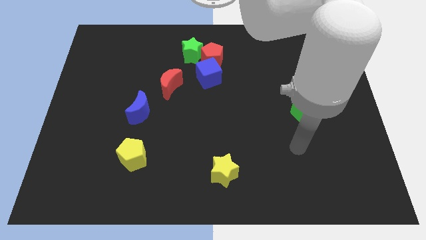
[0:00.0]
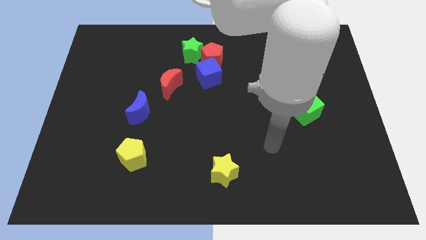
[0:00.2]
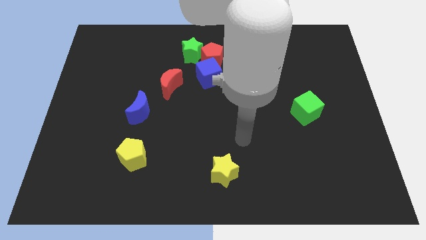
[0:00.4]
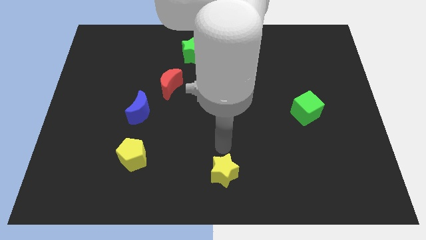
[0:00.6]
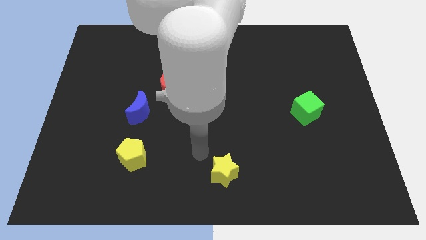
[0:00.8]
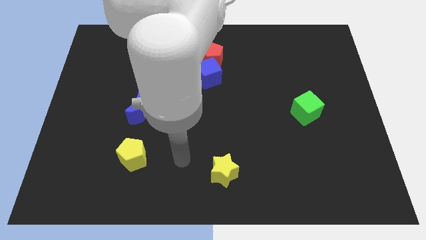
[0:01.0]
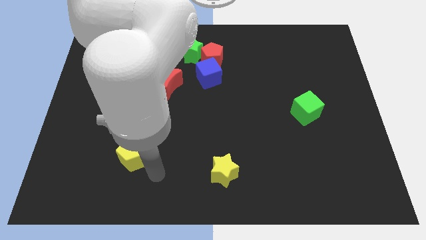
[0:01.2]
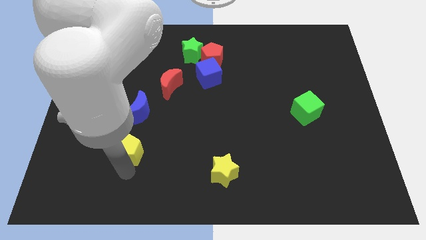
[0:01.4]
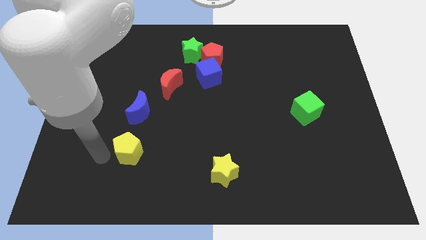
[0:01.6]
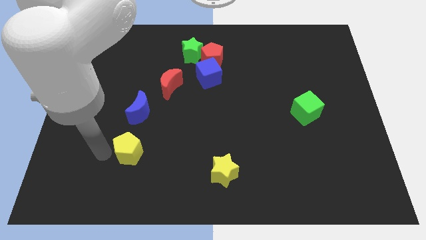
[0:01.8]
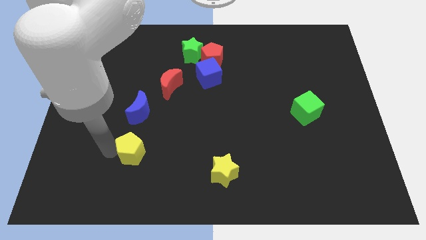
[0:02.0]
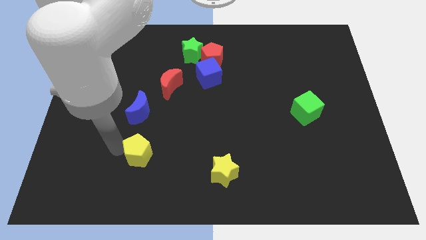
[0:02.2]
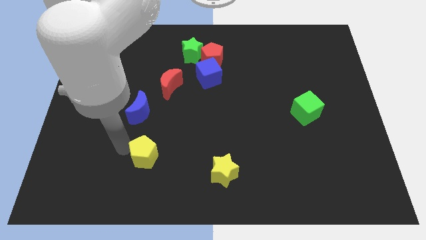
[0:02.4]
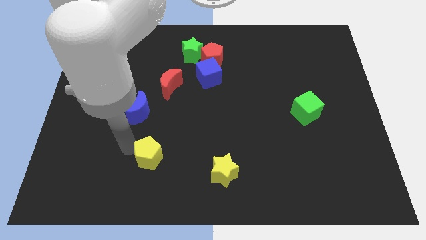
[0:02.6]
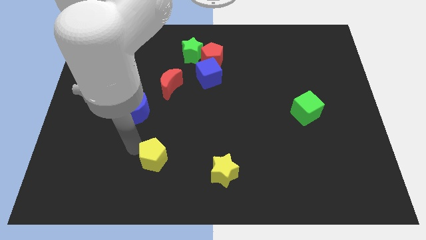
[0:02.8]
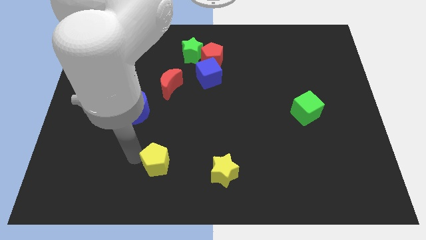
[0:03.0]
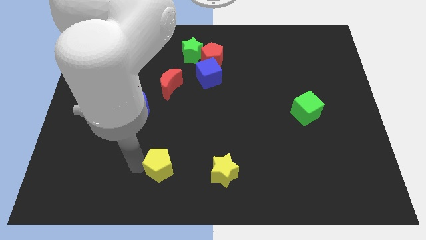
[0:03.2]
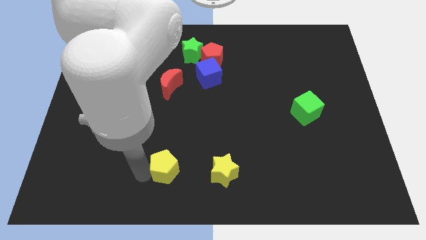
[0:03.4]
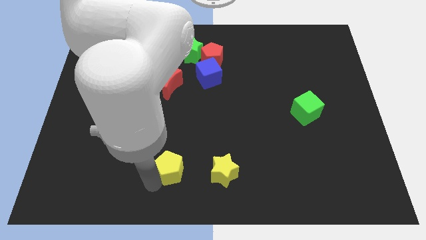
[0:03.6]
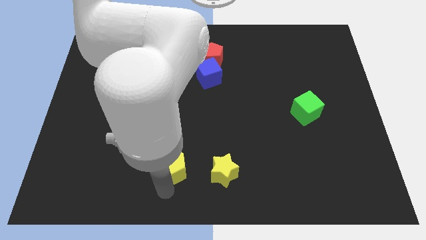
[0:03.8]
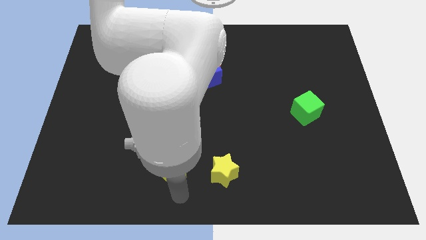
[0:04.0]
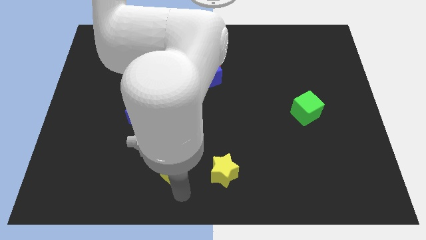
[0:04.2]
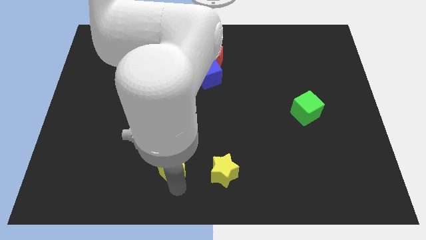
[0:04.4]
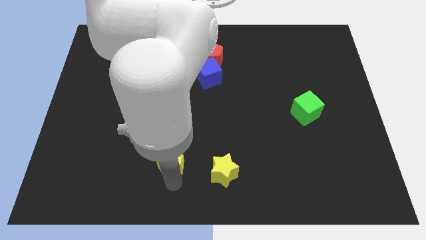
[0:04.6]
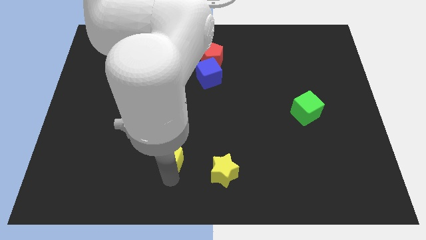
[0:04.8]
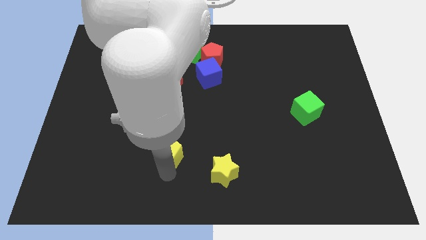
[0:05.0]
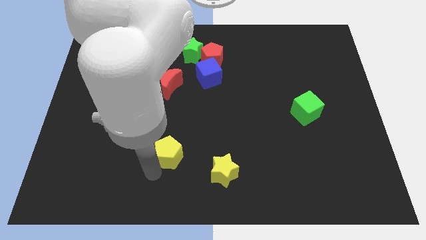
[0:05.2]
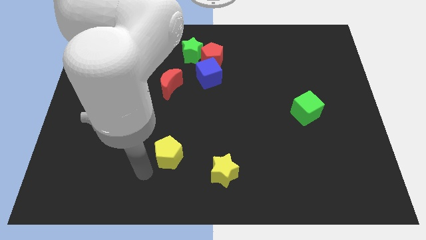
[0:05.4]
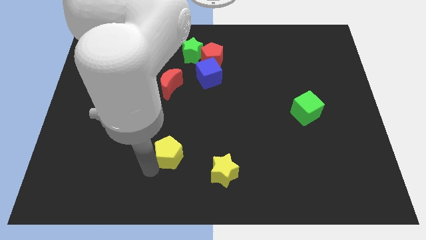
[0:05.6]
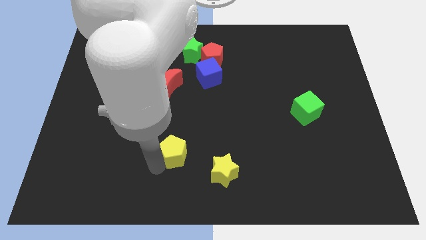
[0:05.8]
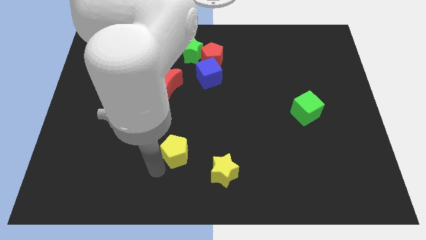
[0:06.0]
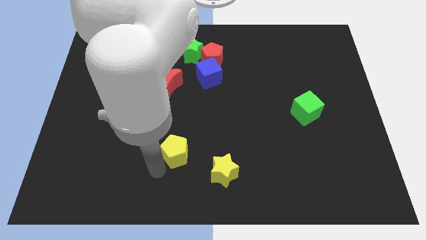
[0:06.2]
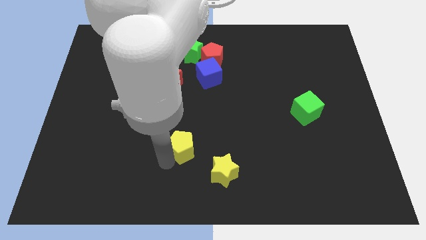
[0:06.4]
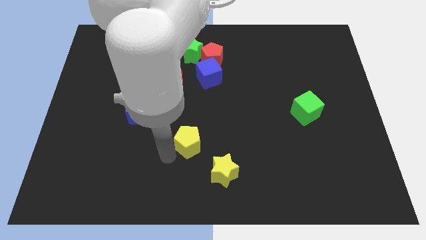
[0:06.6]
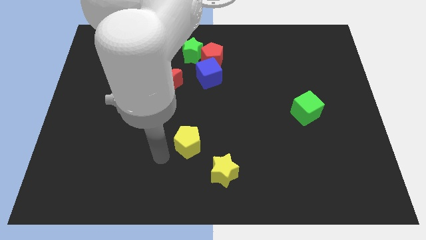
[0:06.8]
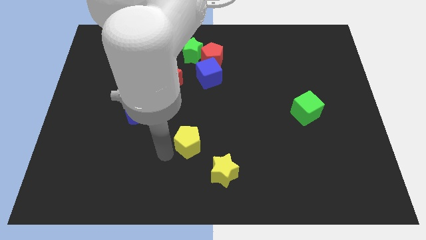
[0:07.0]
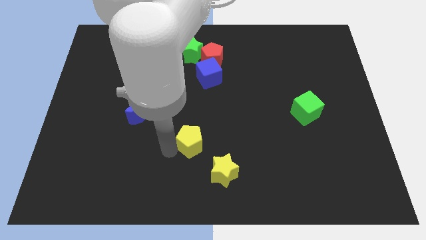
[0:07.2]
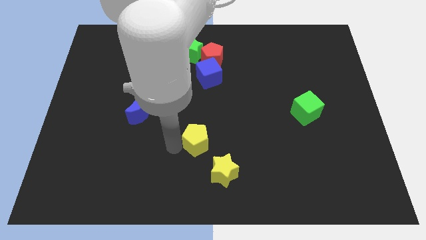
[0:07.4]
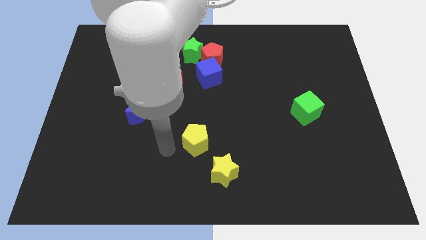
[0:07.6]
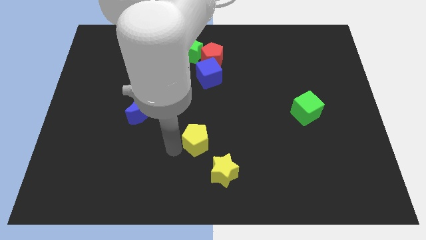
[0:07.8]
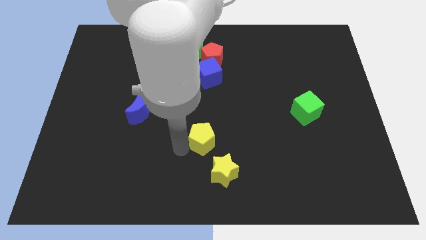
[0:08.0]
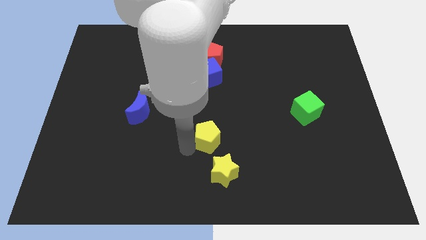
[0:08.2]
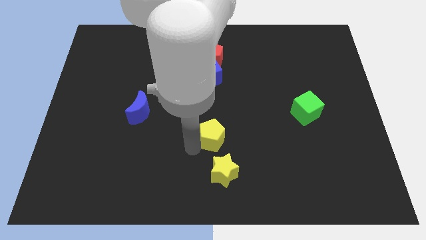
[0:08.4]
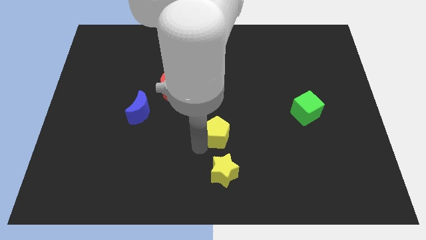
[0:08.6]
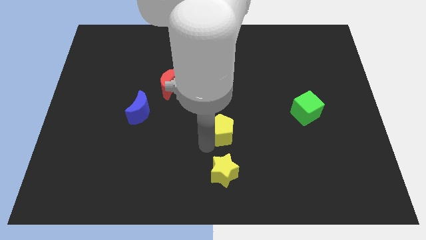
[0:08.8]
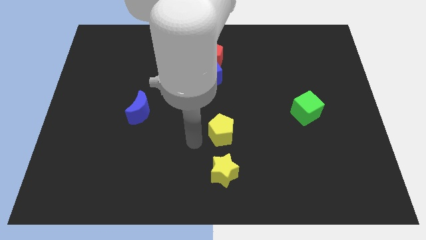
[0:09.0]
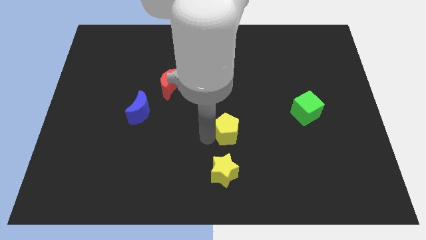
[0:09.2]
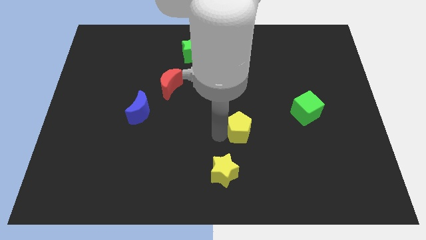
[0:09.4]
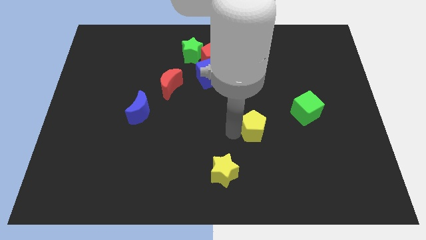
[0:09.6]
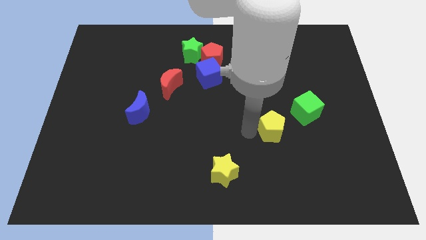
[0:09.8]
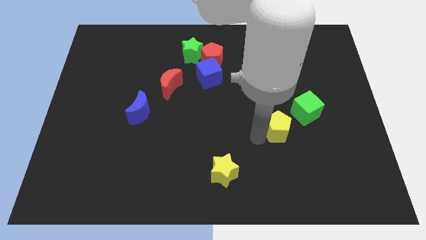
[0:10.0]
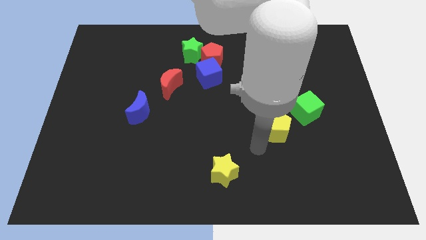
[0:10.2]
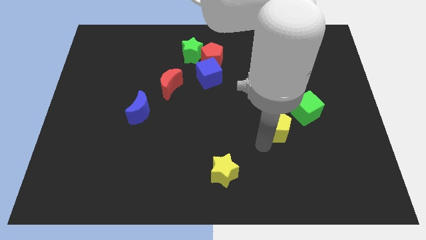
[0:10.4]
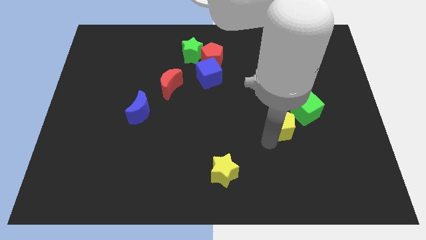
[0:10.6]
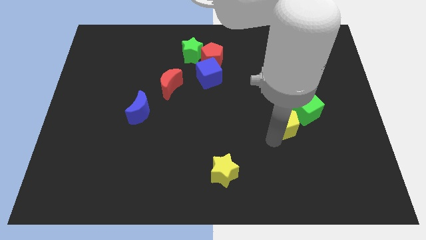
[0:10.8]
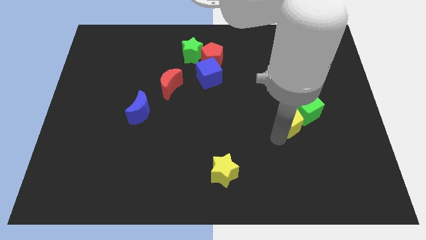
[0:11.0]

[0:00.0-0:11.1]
move the yellow pentagon close to the green cube

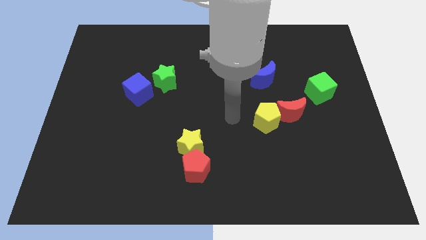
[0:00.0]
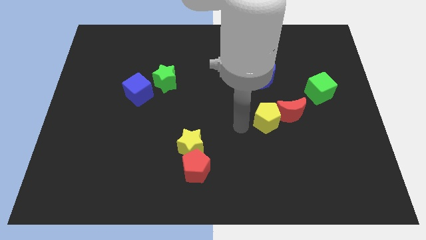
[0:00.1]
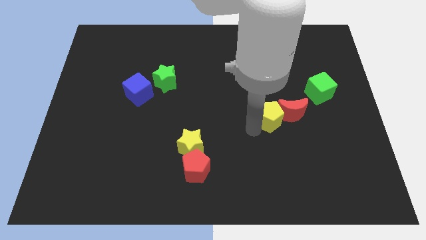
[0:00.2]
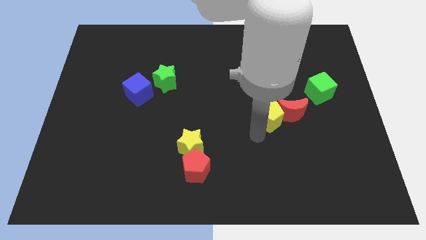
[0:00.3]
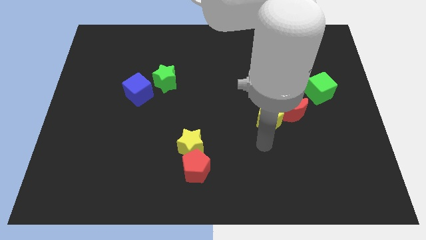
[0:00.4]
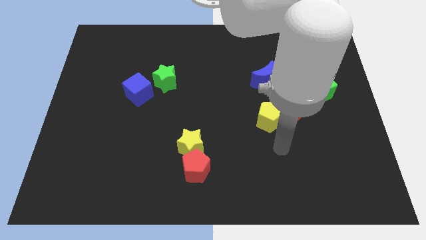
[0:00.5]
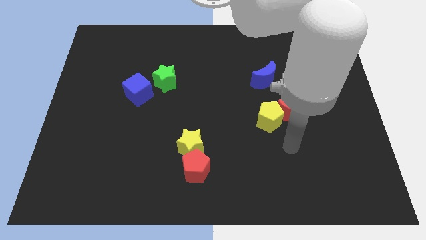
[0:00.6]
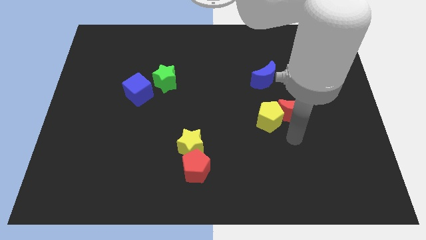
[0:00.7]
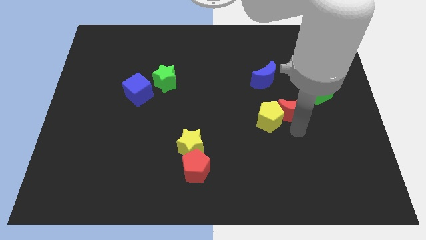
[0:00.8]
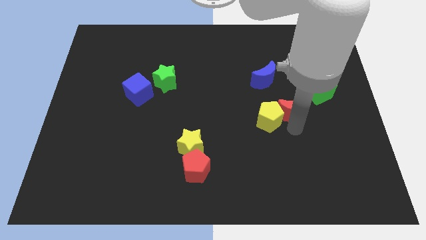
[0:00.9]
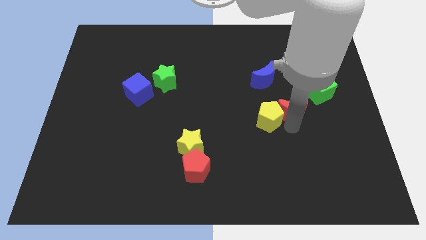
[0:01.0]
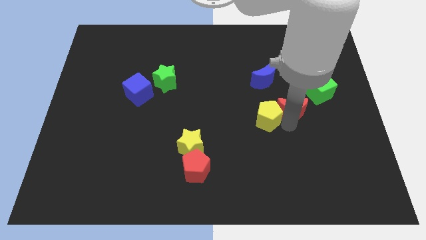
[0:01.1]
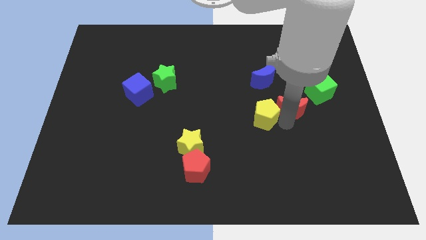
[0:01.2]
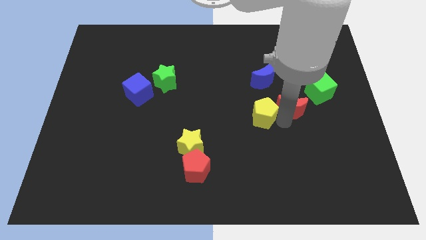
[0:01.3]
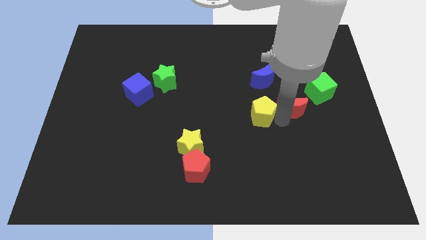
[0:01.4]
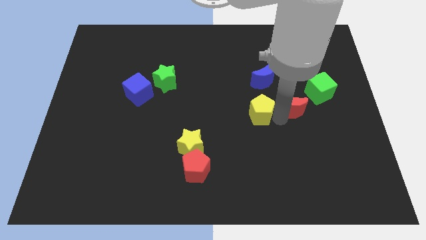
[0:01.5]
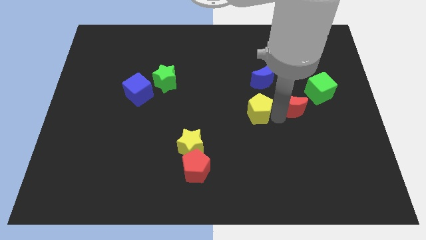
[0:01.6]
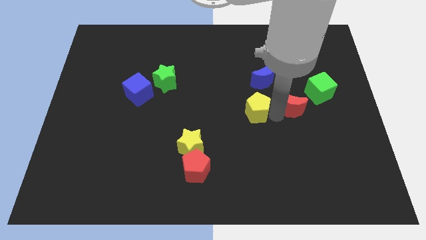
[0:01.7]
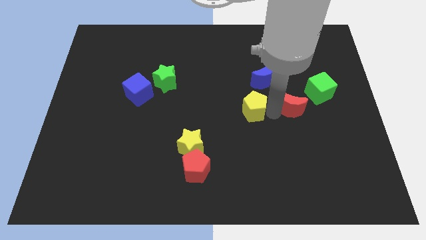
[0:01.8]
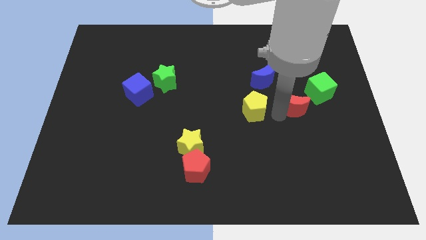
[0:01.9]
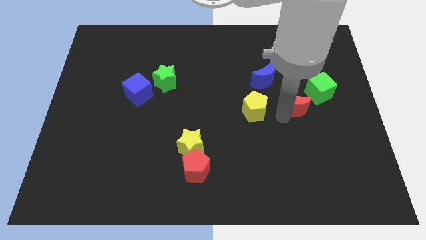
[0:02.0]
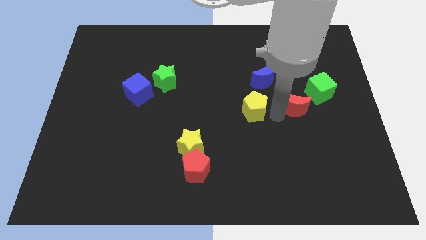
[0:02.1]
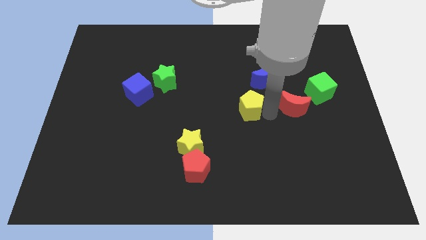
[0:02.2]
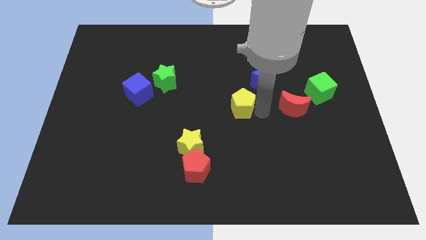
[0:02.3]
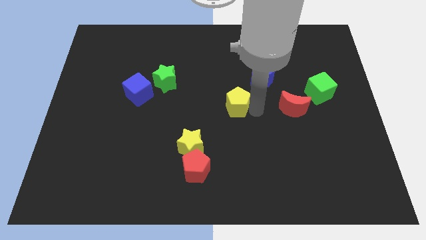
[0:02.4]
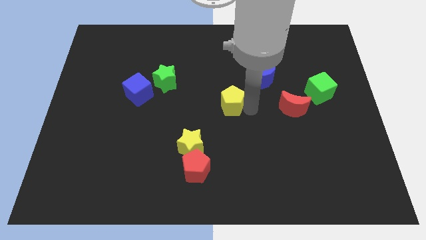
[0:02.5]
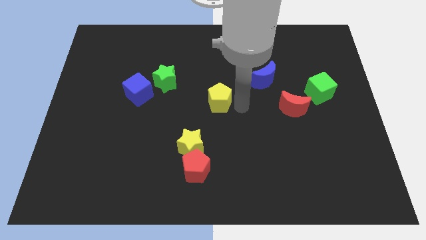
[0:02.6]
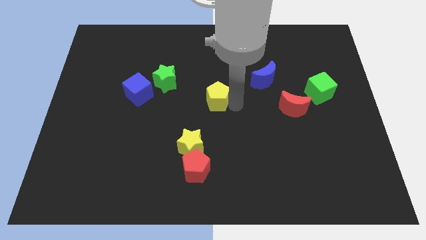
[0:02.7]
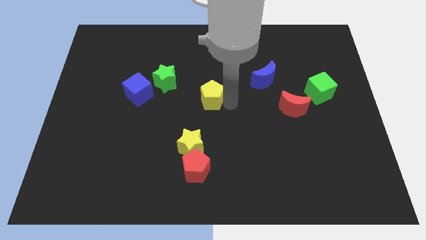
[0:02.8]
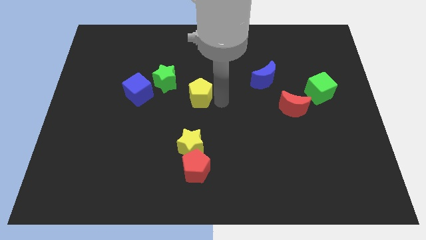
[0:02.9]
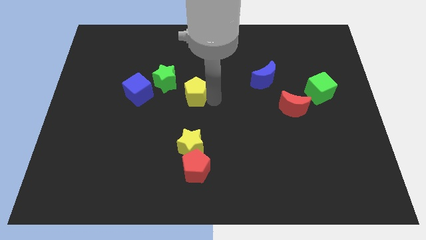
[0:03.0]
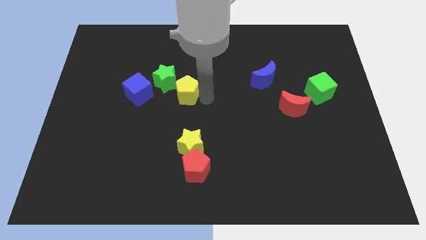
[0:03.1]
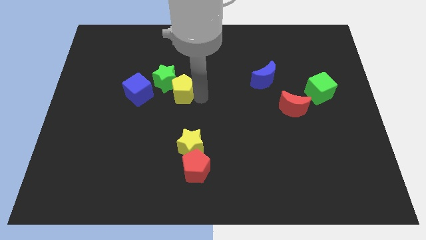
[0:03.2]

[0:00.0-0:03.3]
put the yellow pentagon next to the green star
